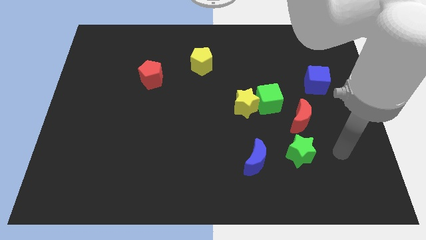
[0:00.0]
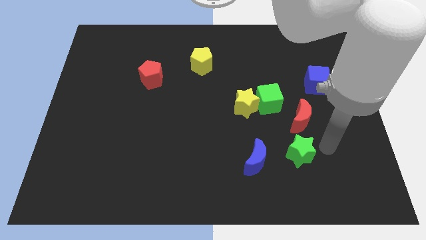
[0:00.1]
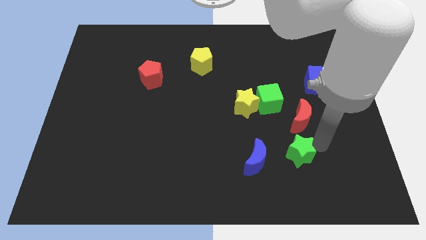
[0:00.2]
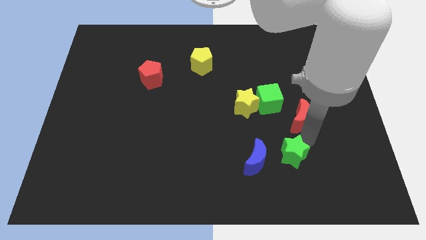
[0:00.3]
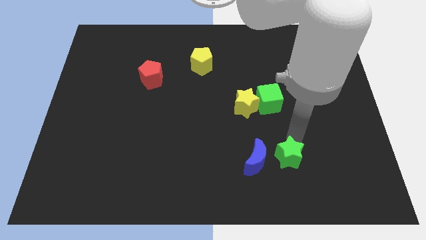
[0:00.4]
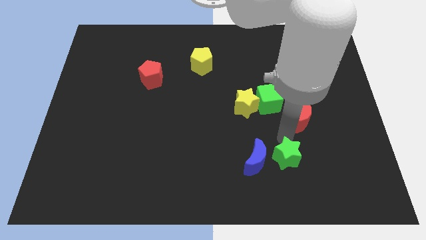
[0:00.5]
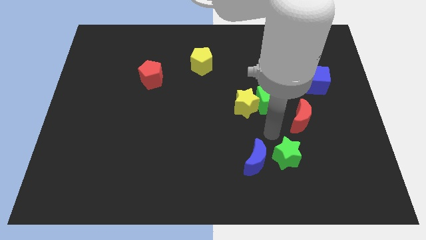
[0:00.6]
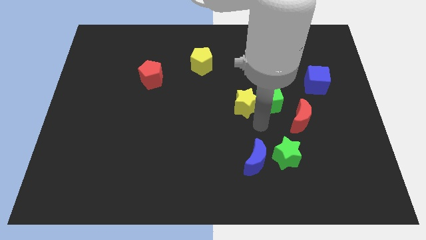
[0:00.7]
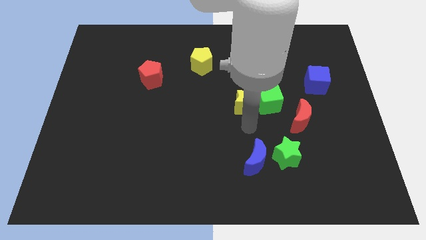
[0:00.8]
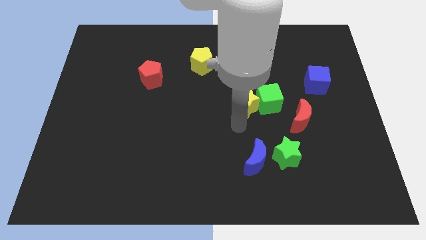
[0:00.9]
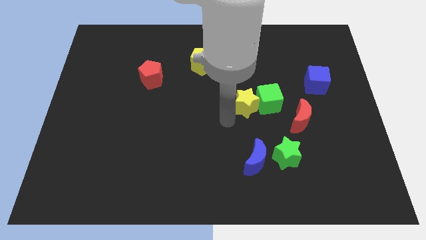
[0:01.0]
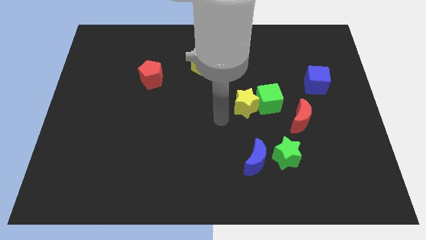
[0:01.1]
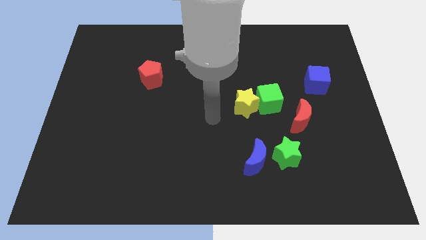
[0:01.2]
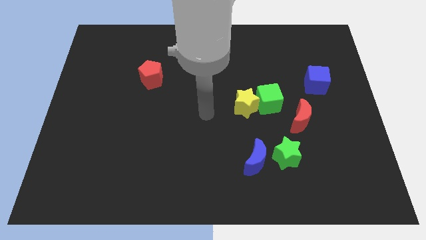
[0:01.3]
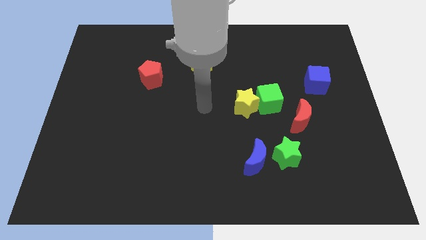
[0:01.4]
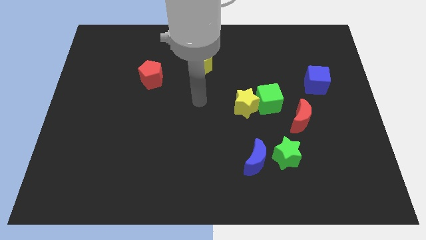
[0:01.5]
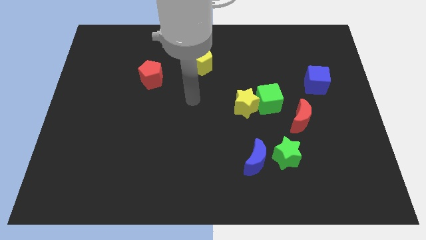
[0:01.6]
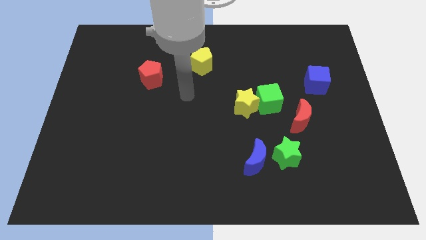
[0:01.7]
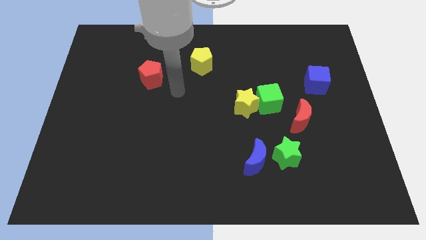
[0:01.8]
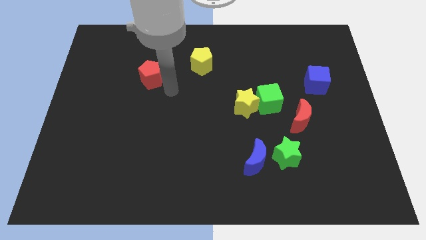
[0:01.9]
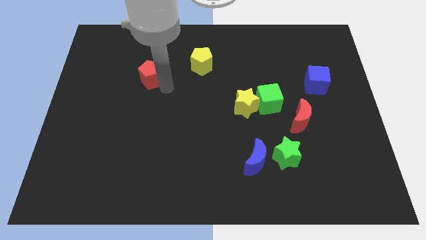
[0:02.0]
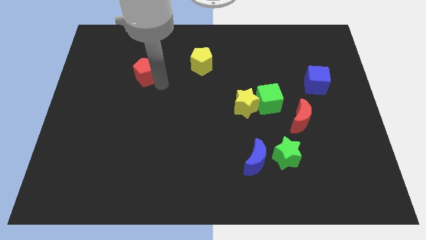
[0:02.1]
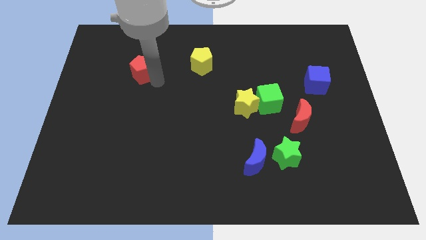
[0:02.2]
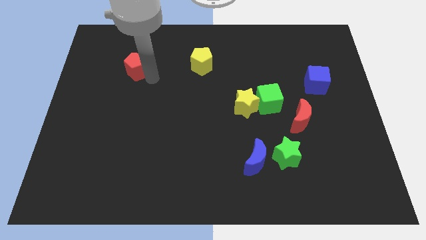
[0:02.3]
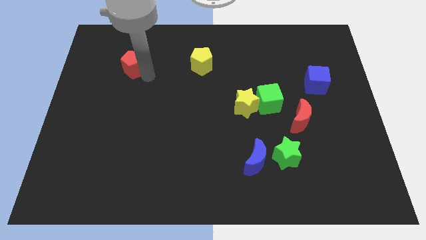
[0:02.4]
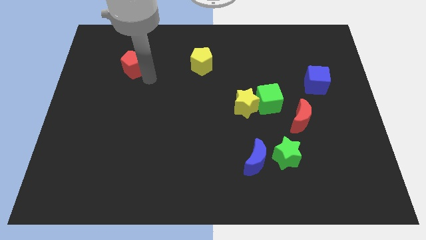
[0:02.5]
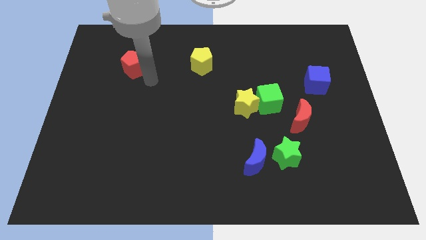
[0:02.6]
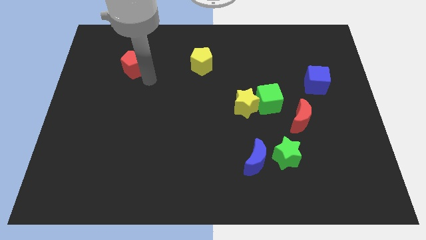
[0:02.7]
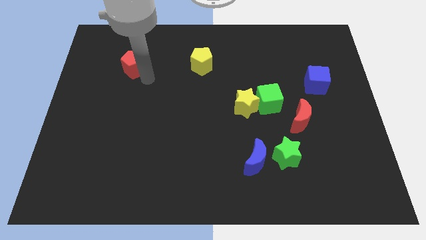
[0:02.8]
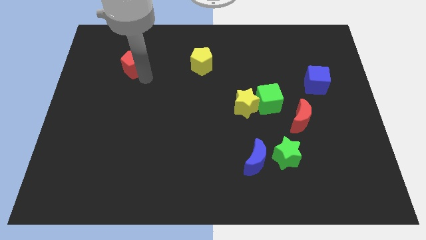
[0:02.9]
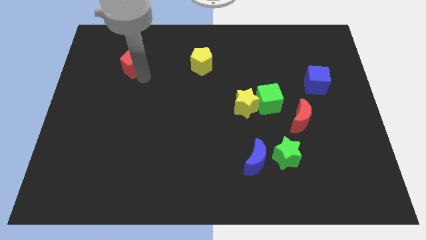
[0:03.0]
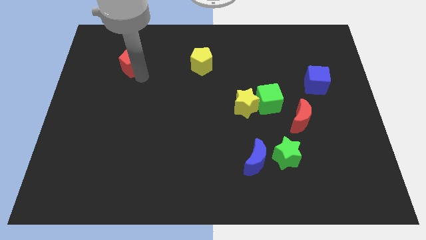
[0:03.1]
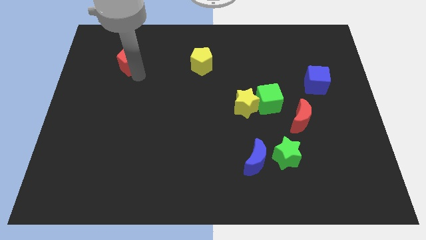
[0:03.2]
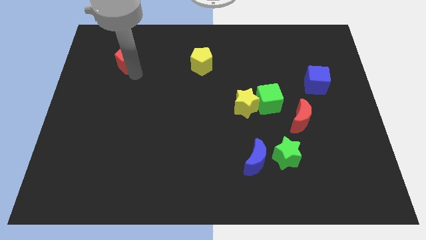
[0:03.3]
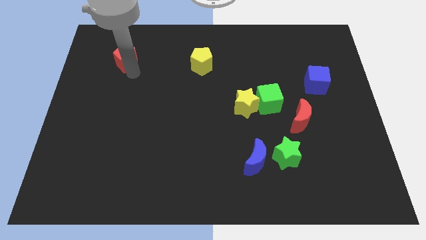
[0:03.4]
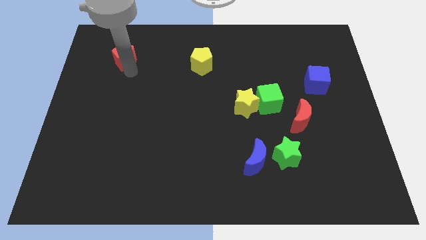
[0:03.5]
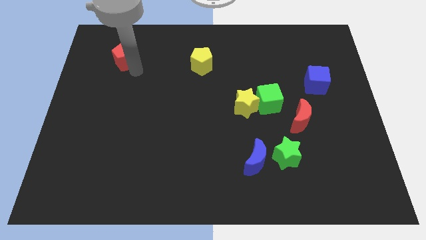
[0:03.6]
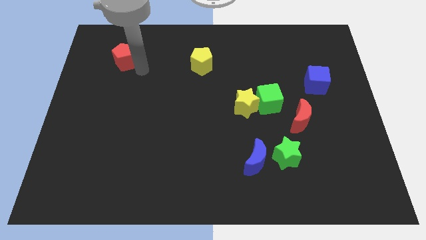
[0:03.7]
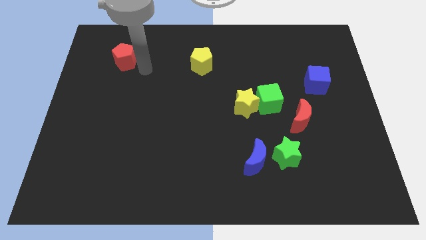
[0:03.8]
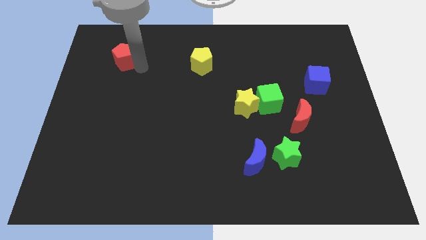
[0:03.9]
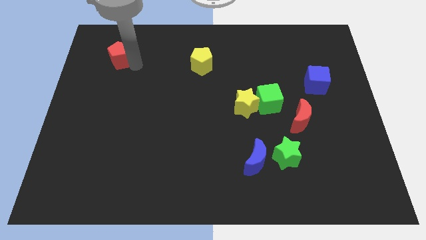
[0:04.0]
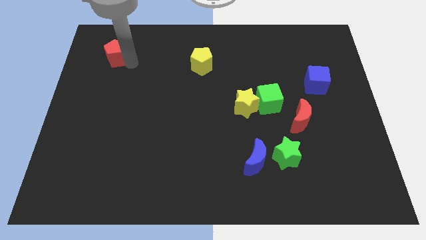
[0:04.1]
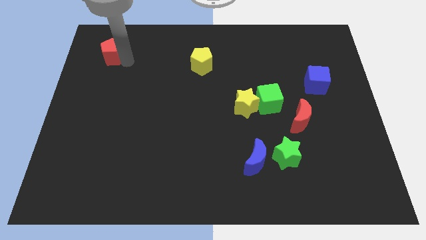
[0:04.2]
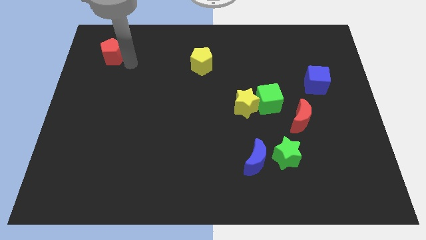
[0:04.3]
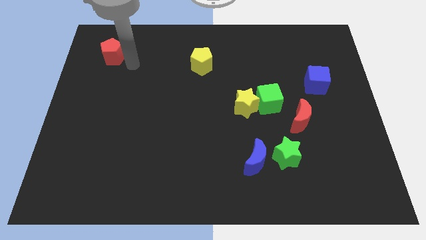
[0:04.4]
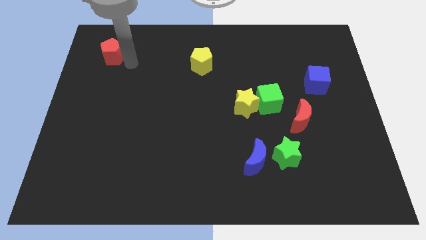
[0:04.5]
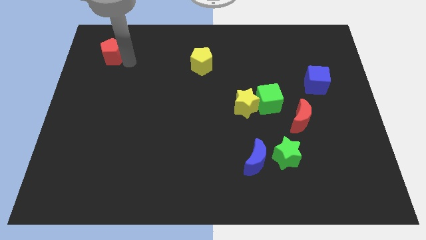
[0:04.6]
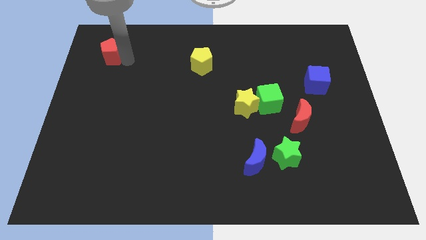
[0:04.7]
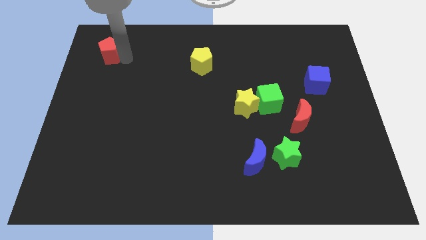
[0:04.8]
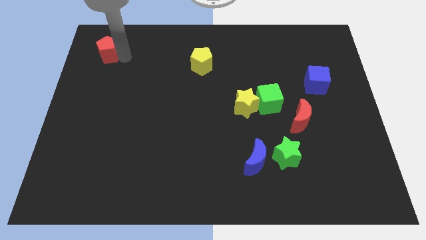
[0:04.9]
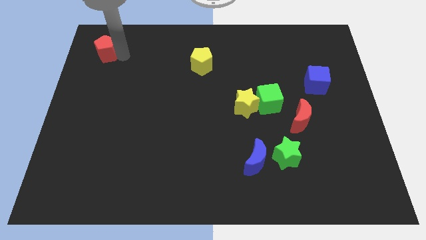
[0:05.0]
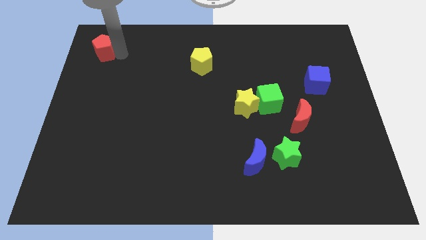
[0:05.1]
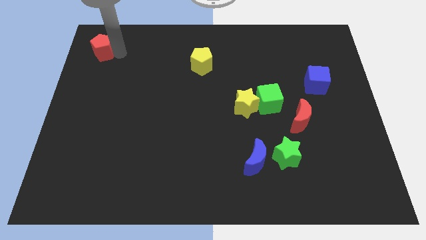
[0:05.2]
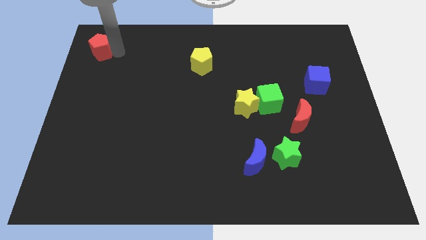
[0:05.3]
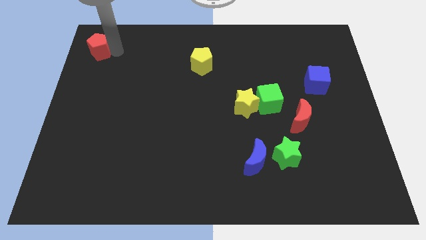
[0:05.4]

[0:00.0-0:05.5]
put the red pentagon to the top left of the board

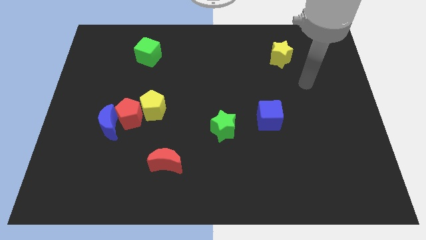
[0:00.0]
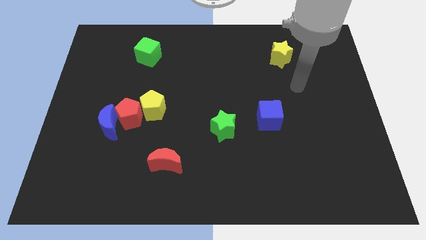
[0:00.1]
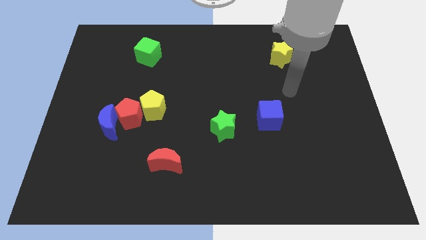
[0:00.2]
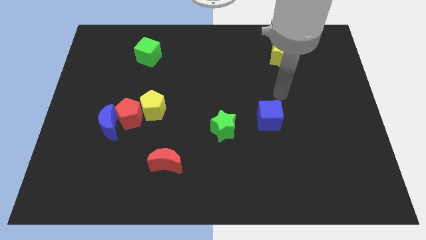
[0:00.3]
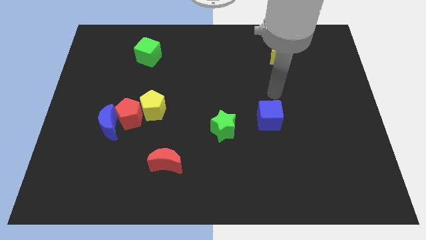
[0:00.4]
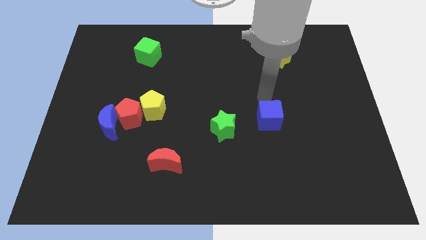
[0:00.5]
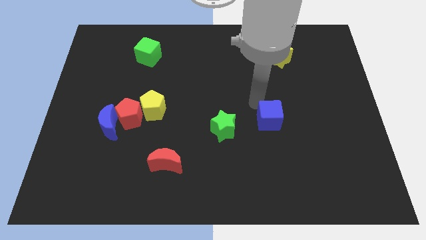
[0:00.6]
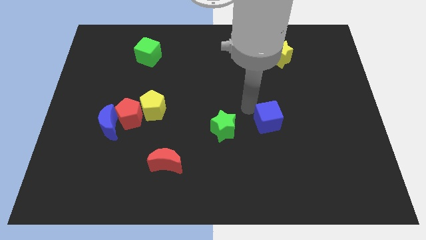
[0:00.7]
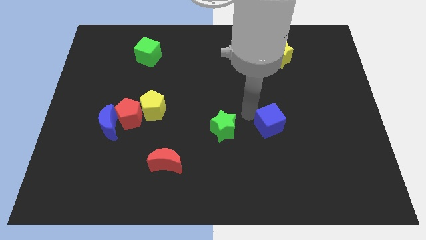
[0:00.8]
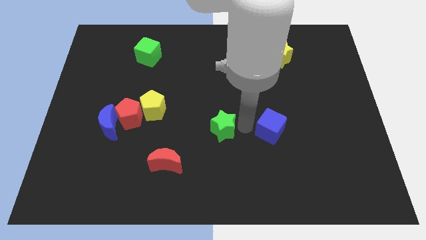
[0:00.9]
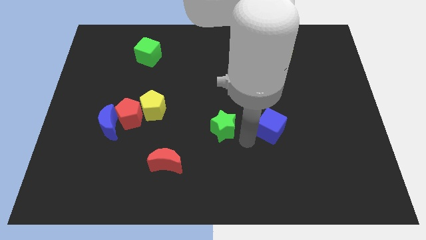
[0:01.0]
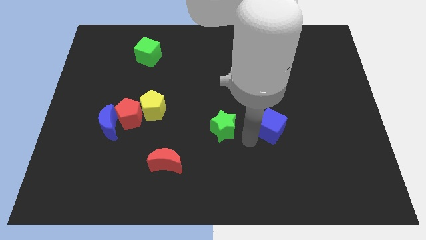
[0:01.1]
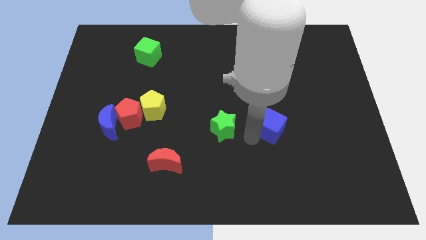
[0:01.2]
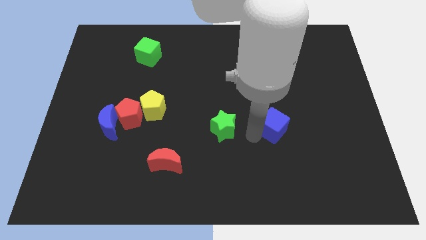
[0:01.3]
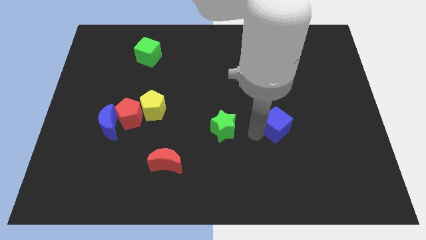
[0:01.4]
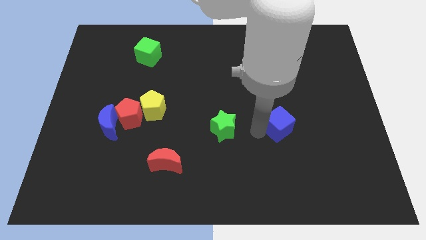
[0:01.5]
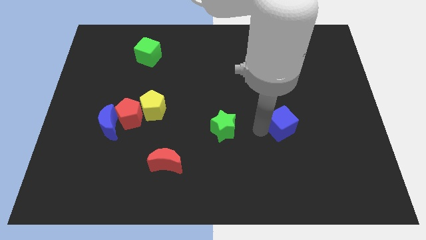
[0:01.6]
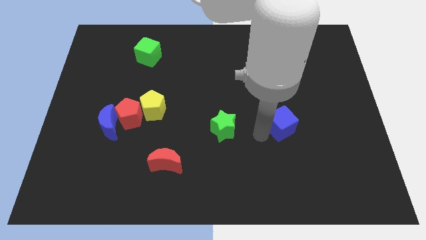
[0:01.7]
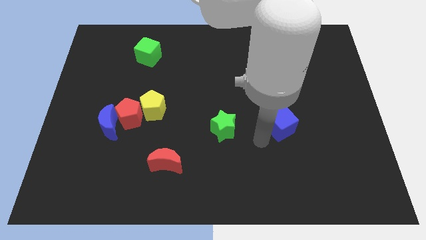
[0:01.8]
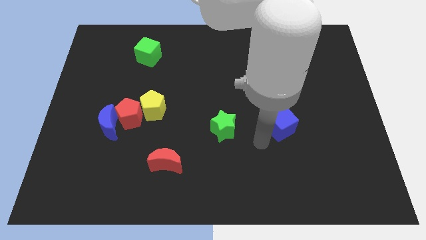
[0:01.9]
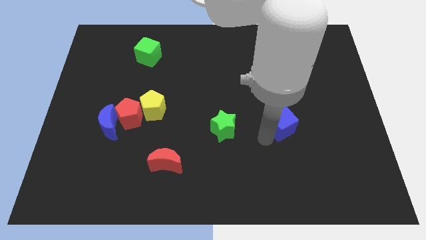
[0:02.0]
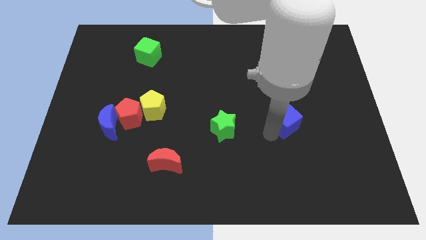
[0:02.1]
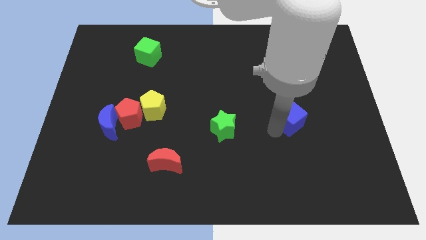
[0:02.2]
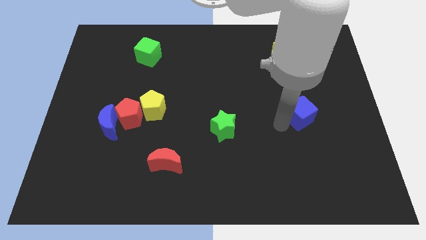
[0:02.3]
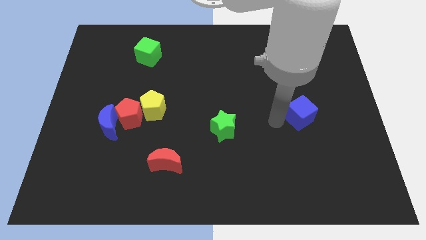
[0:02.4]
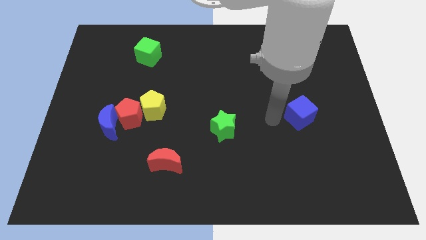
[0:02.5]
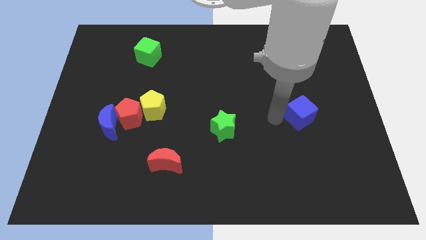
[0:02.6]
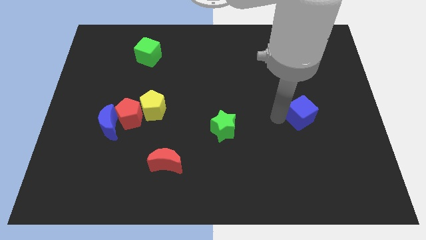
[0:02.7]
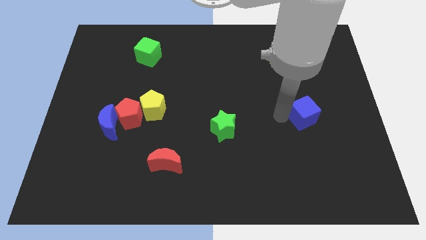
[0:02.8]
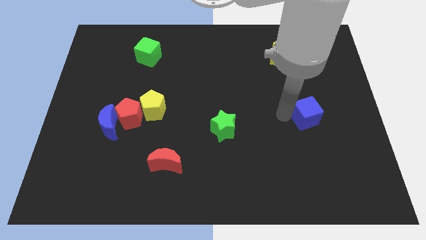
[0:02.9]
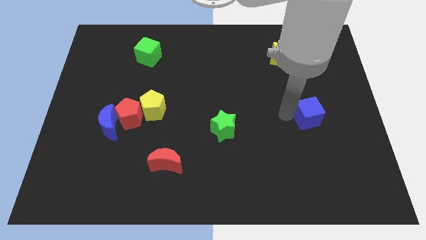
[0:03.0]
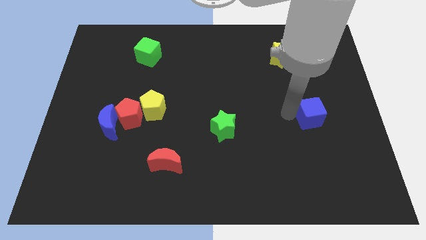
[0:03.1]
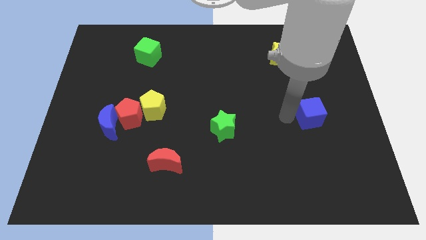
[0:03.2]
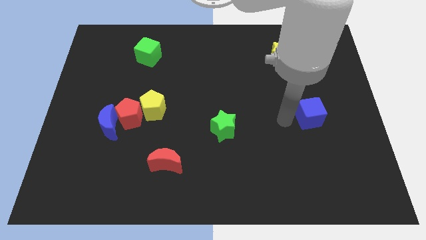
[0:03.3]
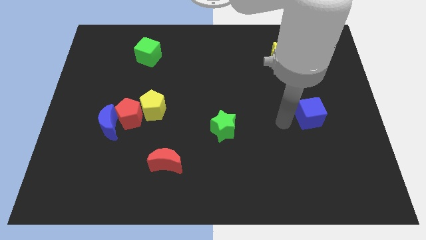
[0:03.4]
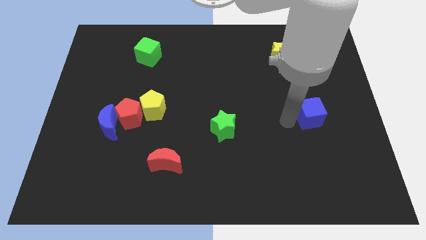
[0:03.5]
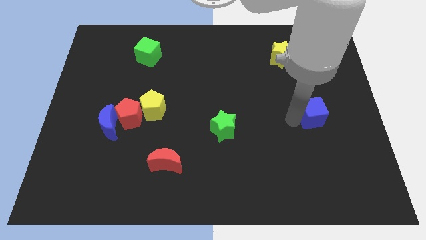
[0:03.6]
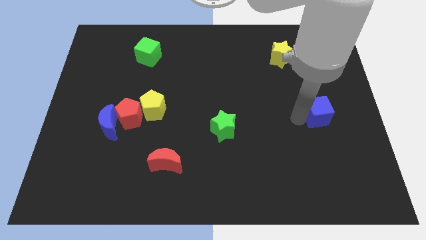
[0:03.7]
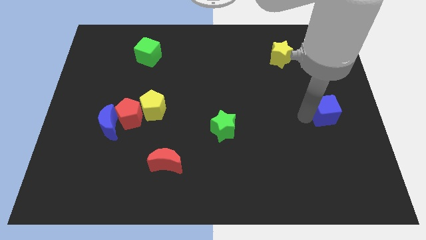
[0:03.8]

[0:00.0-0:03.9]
push the blue cube to the right side of the board
